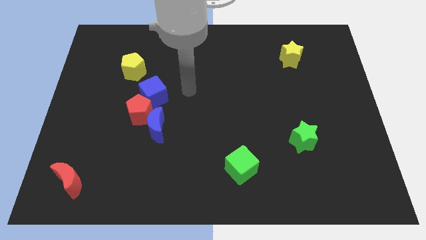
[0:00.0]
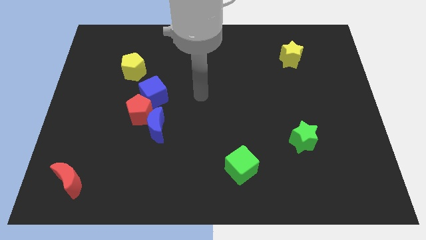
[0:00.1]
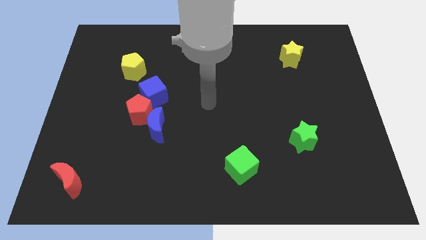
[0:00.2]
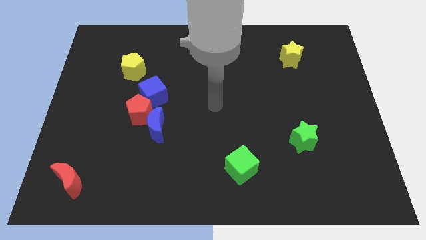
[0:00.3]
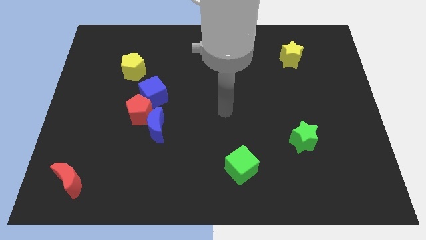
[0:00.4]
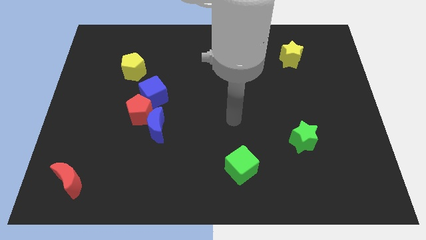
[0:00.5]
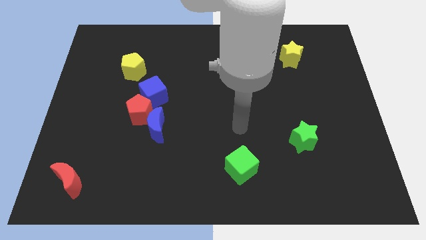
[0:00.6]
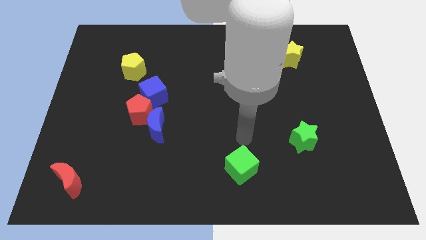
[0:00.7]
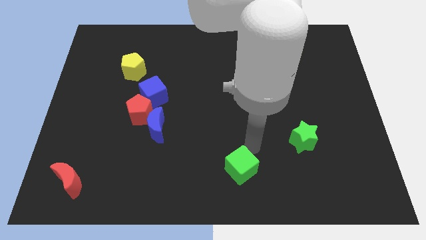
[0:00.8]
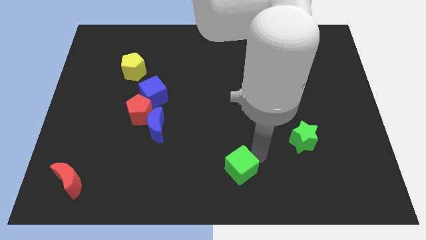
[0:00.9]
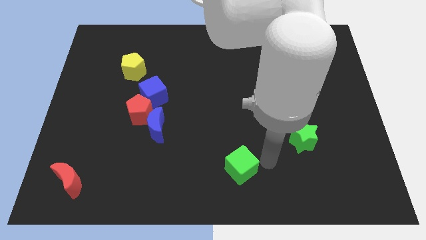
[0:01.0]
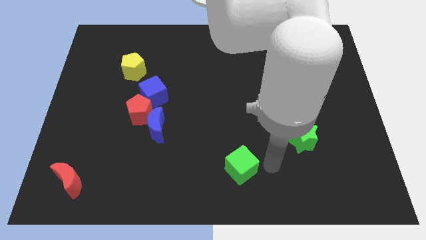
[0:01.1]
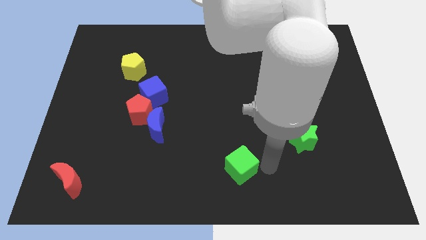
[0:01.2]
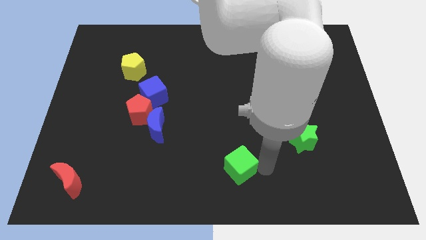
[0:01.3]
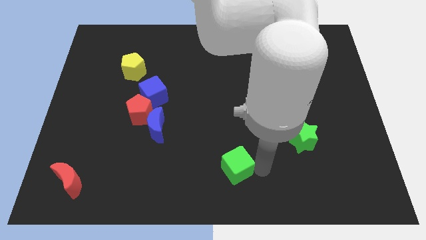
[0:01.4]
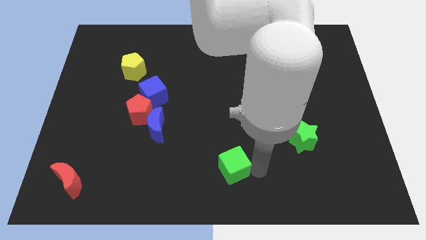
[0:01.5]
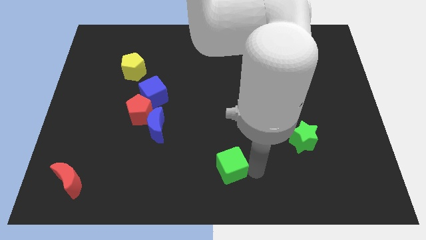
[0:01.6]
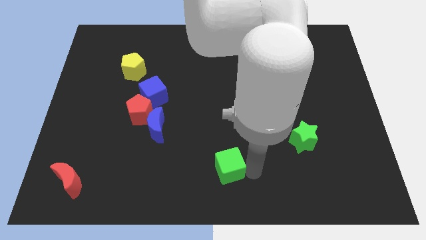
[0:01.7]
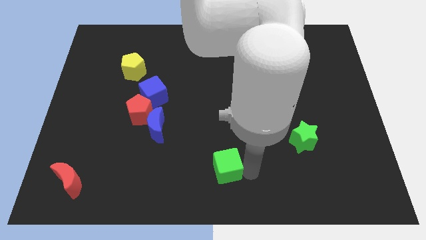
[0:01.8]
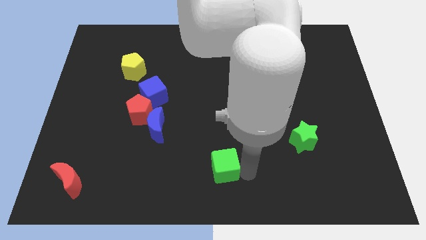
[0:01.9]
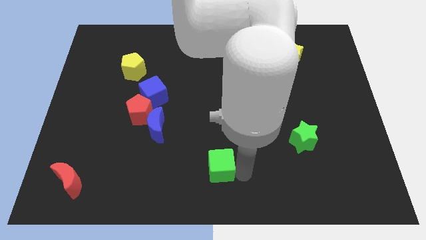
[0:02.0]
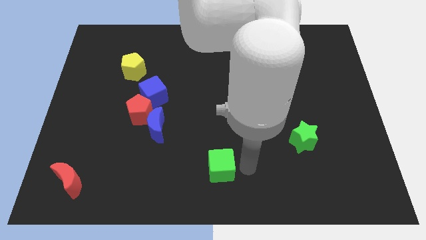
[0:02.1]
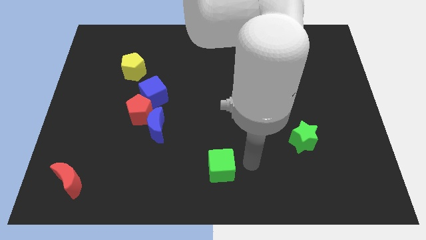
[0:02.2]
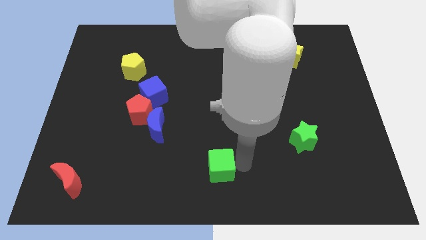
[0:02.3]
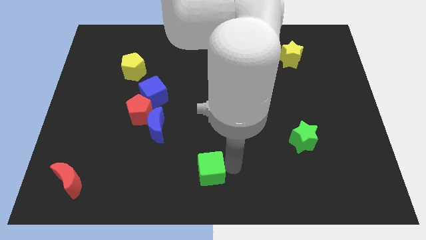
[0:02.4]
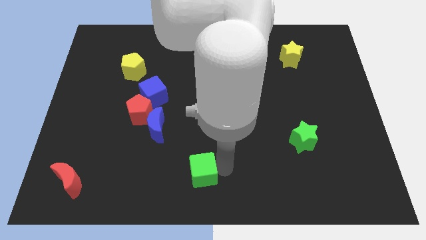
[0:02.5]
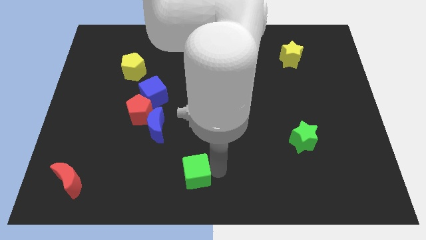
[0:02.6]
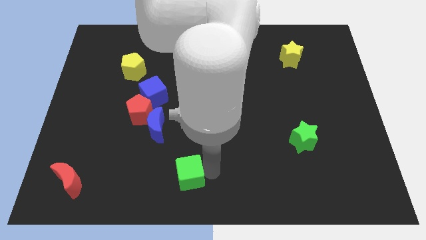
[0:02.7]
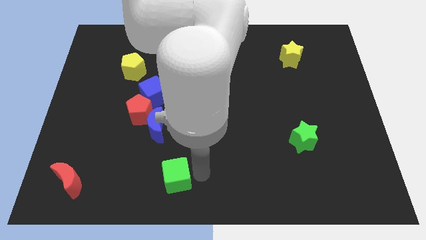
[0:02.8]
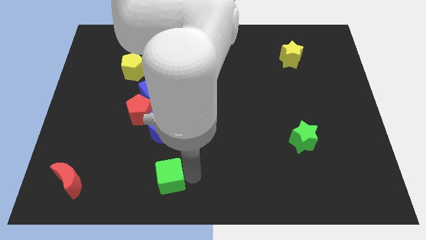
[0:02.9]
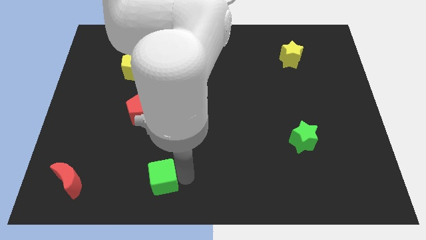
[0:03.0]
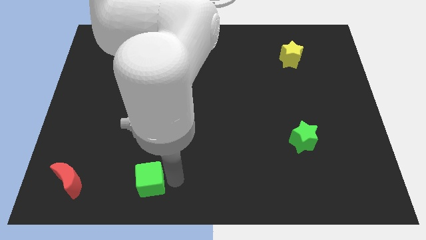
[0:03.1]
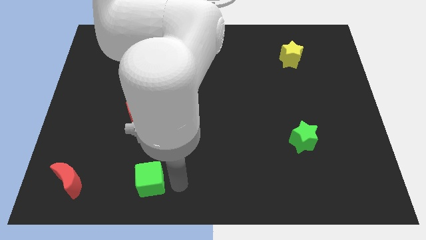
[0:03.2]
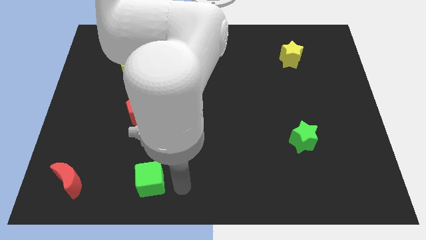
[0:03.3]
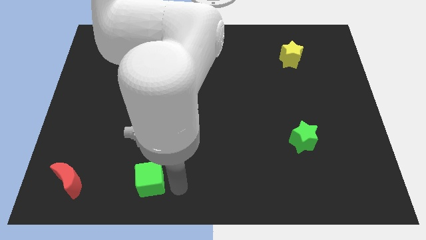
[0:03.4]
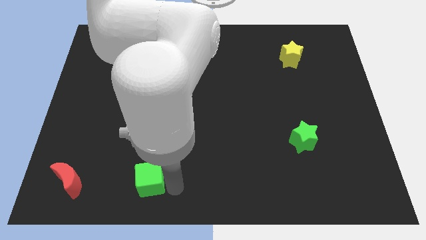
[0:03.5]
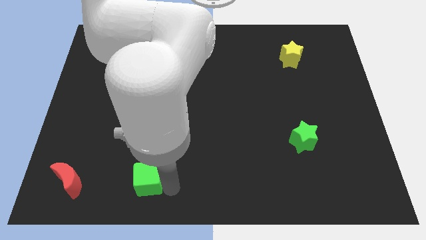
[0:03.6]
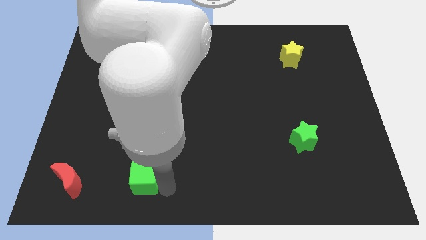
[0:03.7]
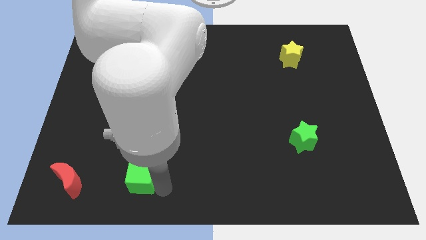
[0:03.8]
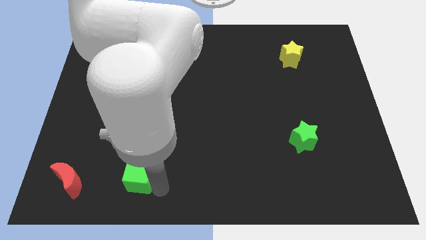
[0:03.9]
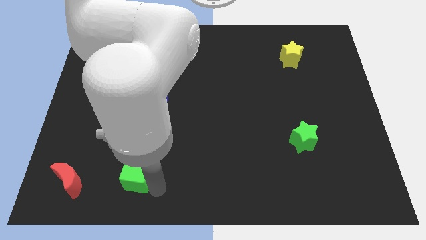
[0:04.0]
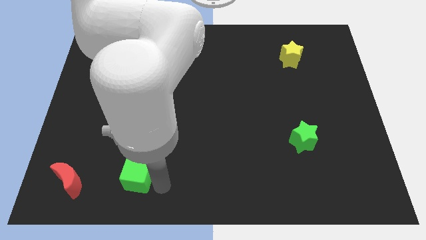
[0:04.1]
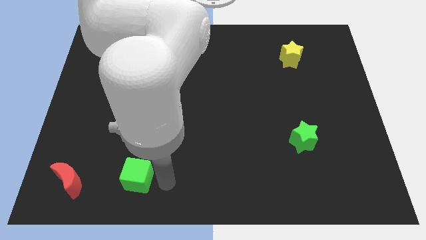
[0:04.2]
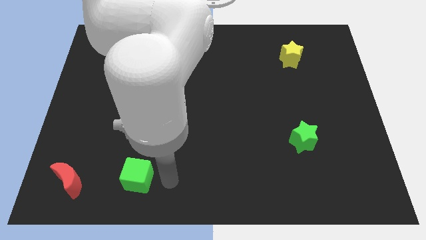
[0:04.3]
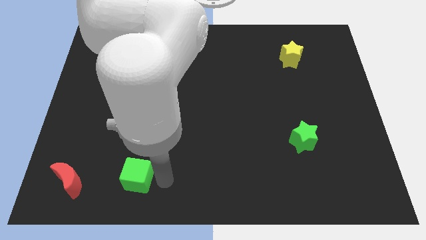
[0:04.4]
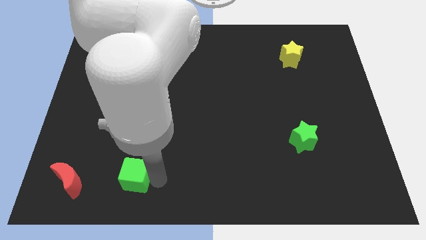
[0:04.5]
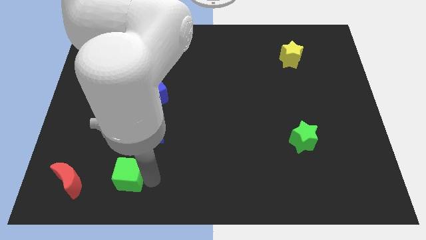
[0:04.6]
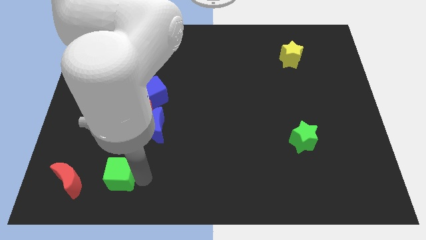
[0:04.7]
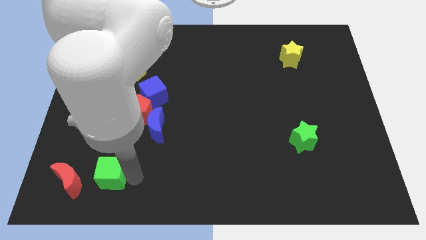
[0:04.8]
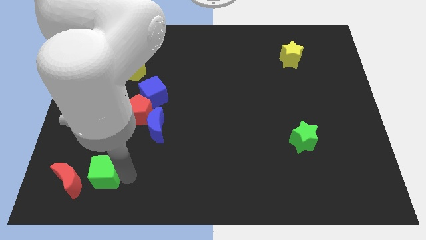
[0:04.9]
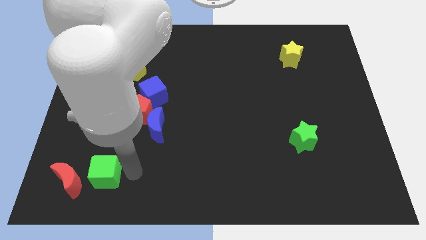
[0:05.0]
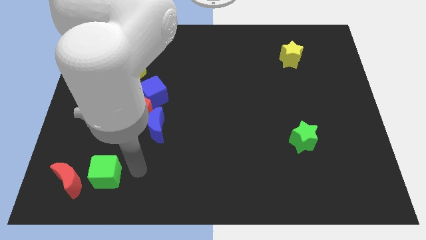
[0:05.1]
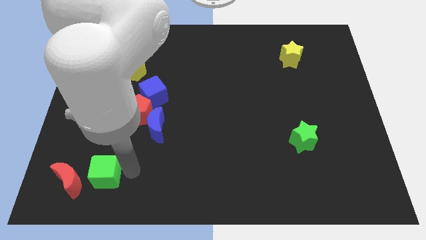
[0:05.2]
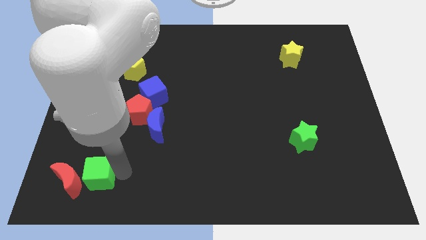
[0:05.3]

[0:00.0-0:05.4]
push the green cube to the red moon

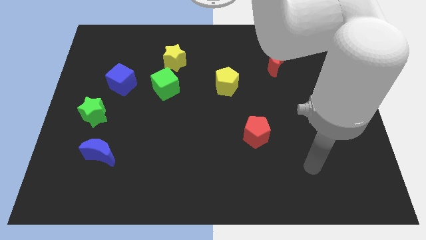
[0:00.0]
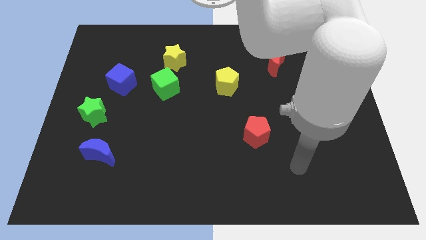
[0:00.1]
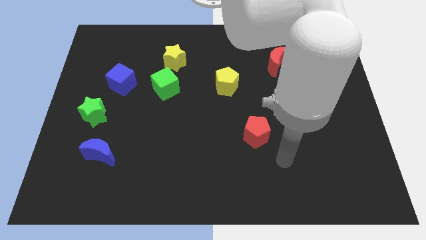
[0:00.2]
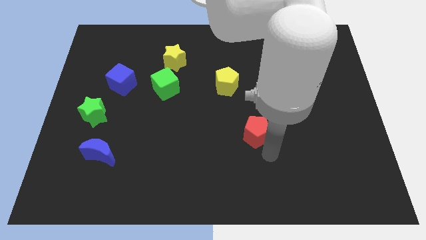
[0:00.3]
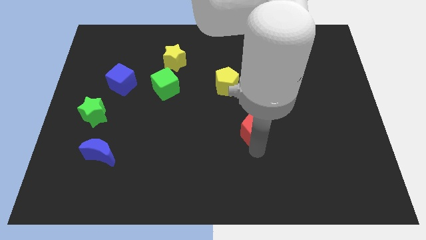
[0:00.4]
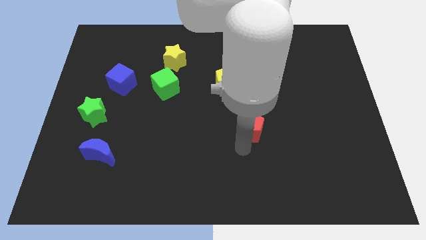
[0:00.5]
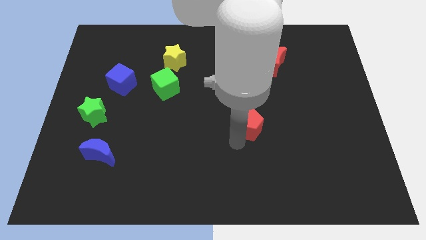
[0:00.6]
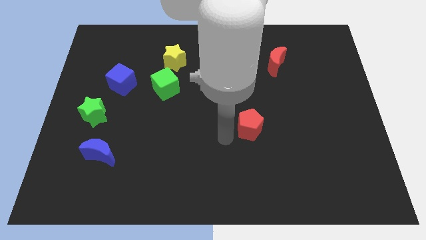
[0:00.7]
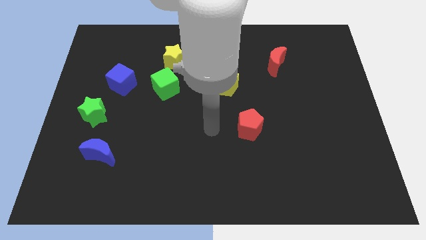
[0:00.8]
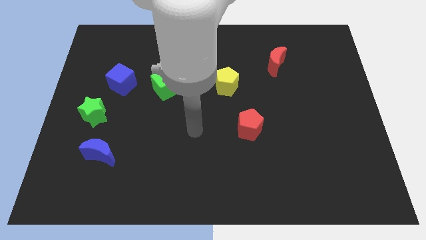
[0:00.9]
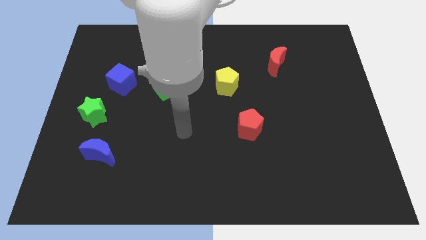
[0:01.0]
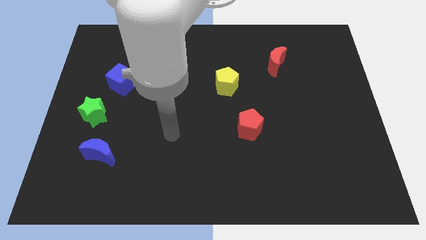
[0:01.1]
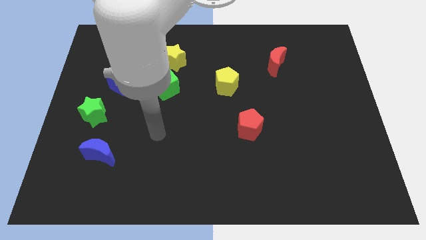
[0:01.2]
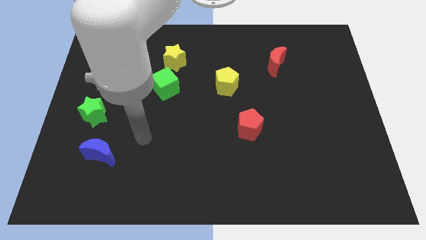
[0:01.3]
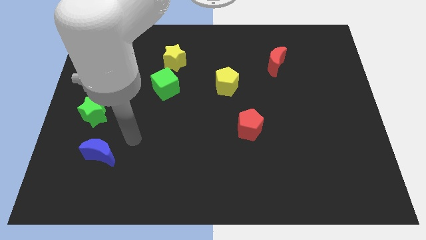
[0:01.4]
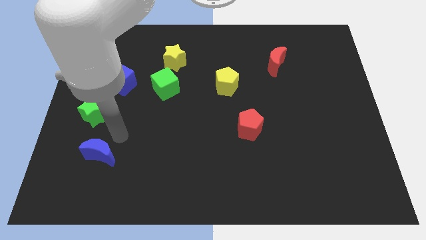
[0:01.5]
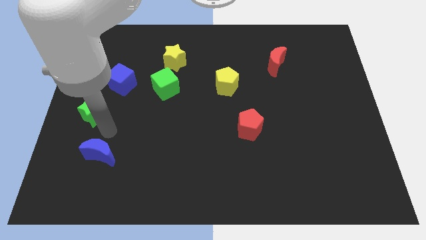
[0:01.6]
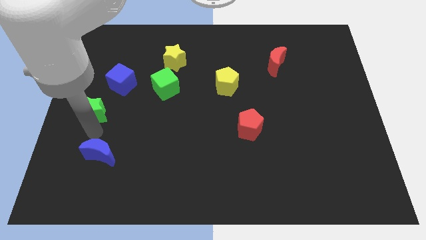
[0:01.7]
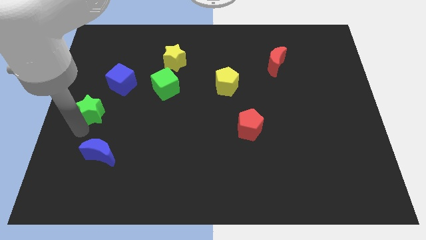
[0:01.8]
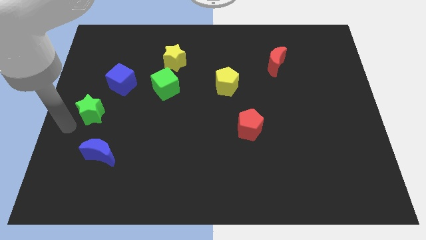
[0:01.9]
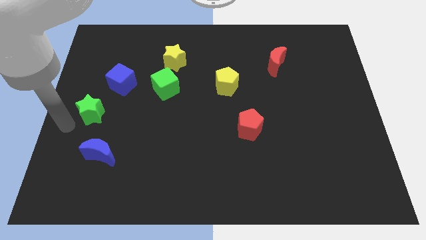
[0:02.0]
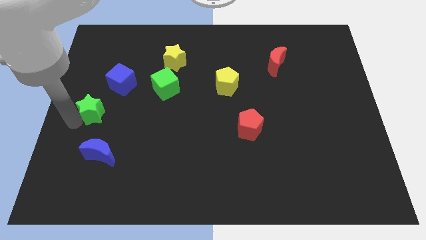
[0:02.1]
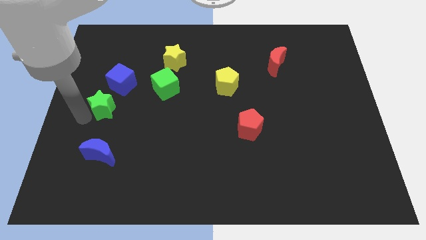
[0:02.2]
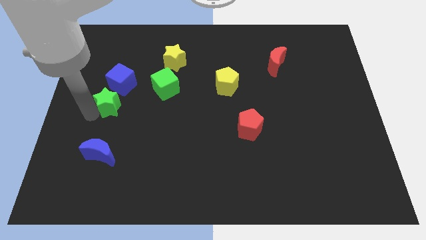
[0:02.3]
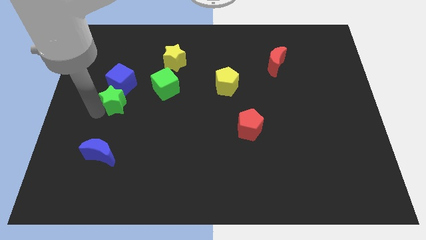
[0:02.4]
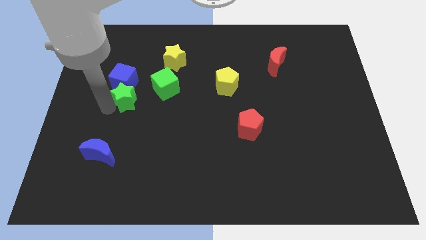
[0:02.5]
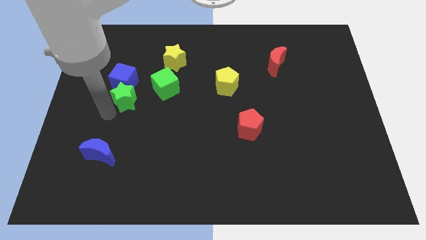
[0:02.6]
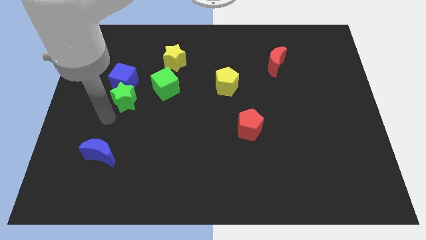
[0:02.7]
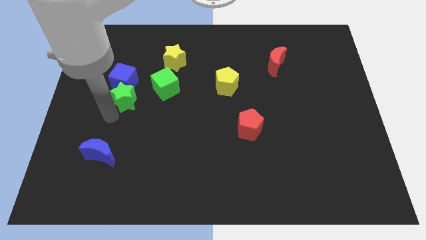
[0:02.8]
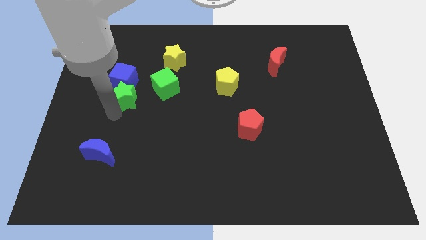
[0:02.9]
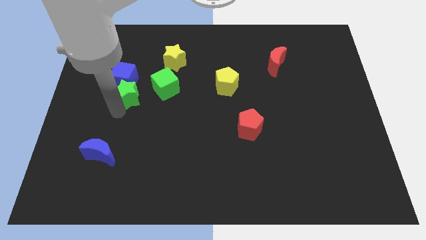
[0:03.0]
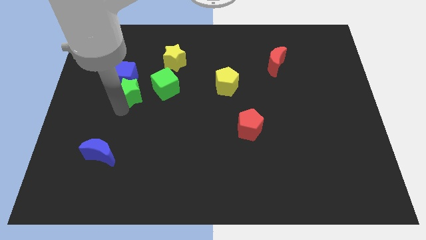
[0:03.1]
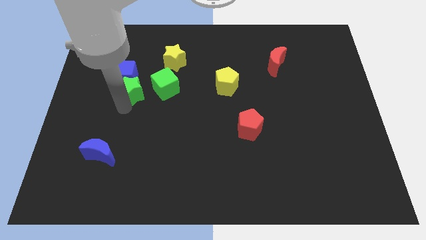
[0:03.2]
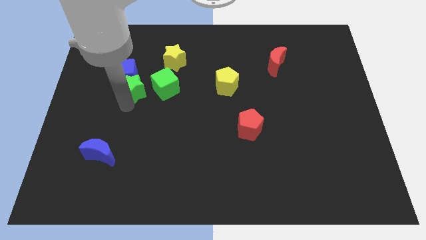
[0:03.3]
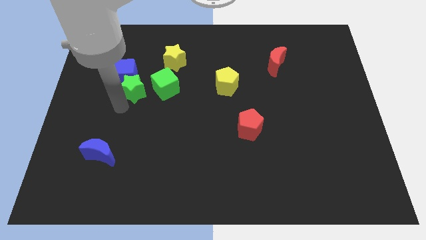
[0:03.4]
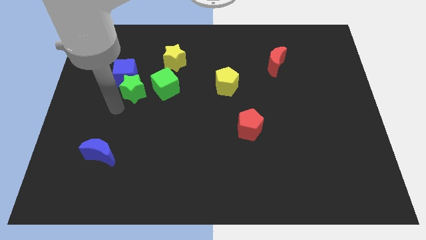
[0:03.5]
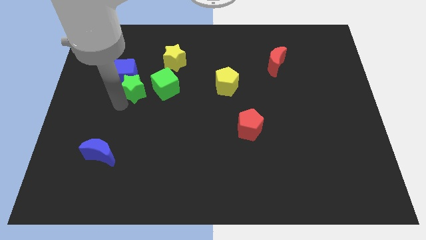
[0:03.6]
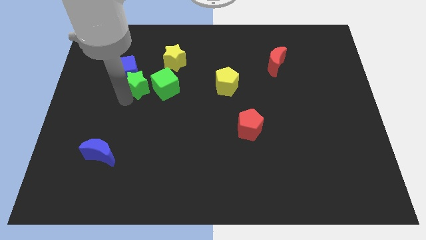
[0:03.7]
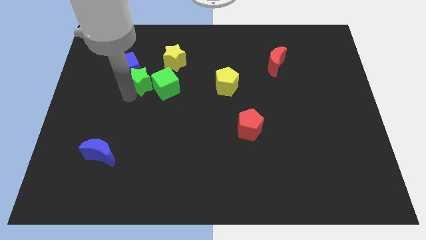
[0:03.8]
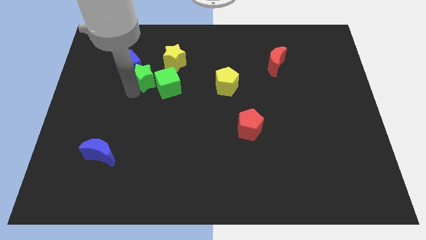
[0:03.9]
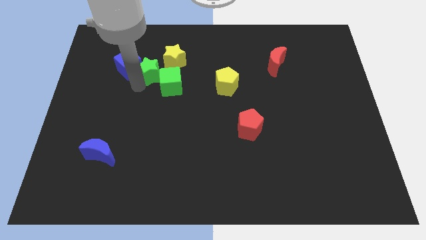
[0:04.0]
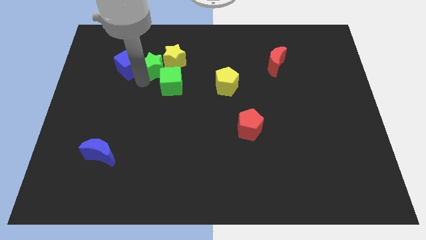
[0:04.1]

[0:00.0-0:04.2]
move the green star close to the yellow star
